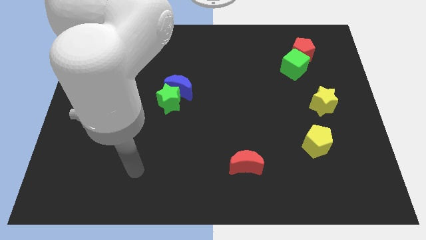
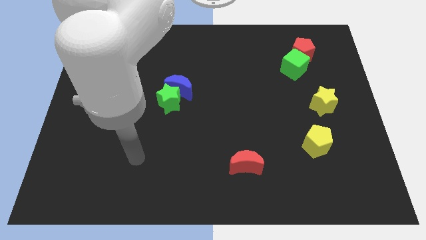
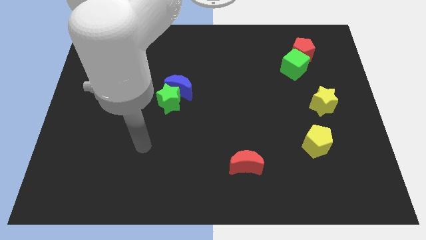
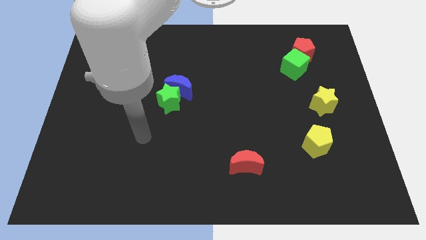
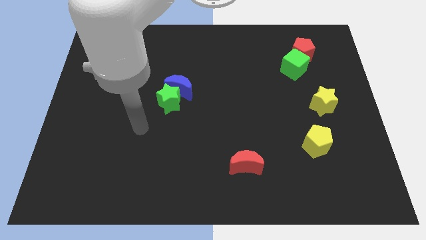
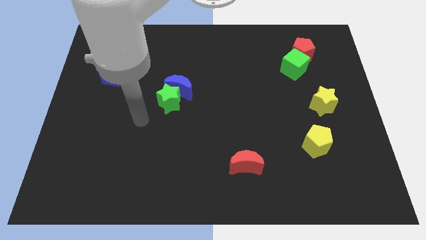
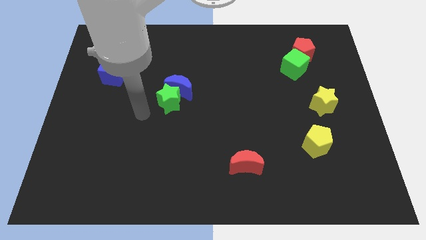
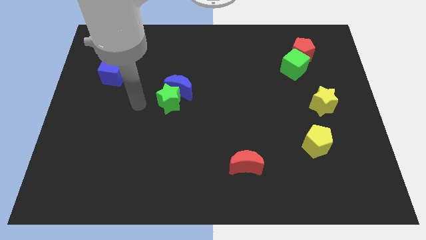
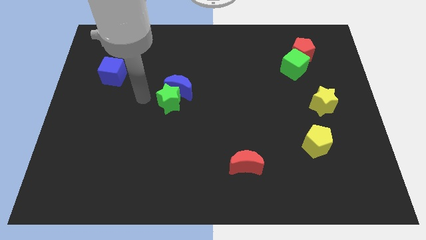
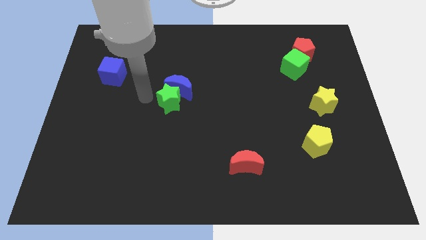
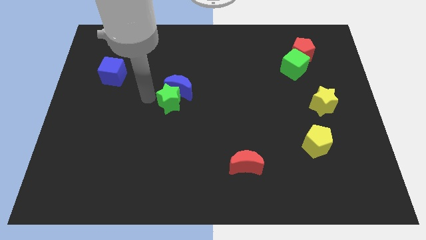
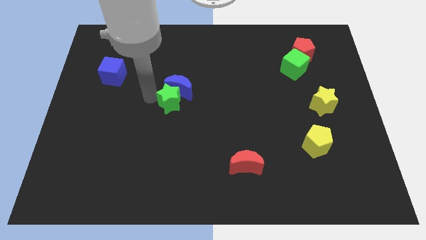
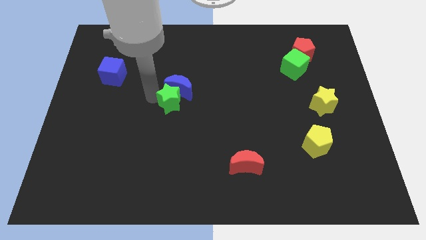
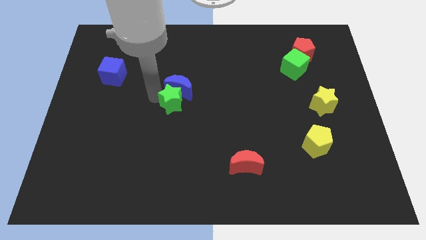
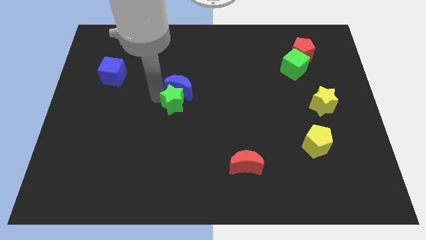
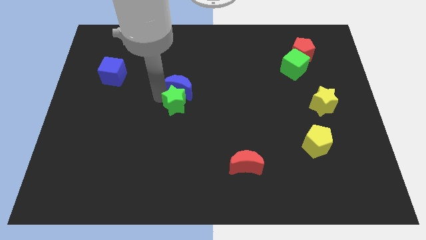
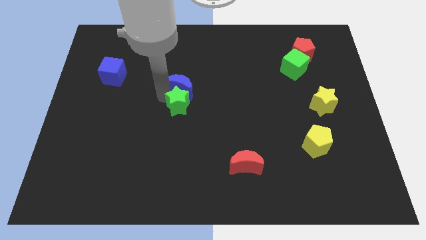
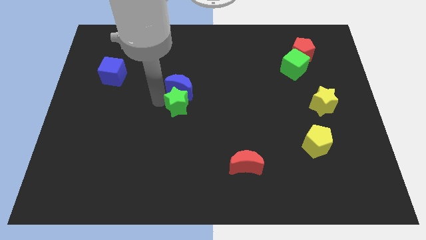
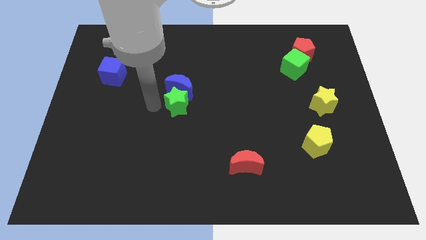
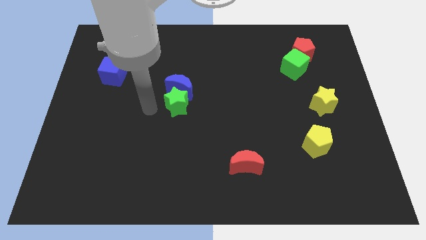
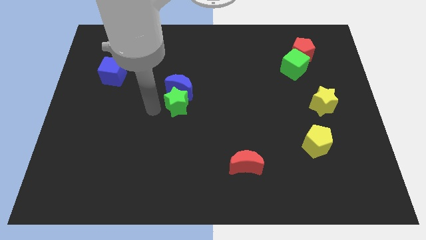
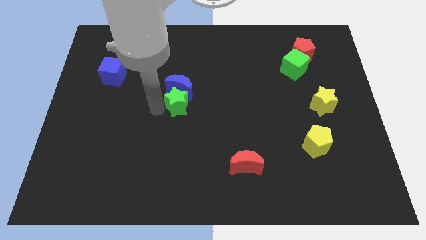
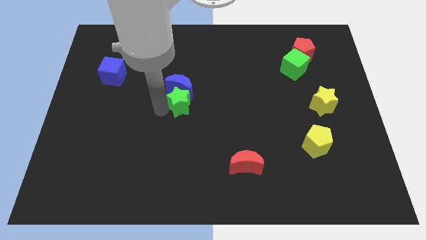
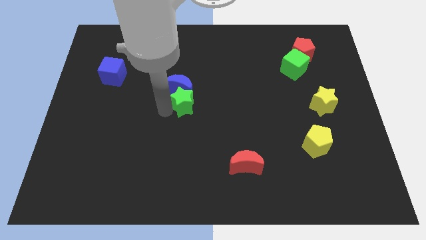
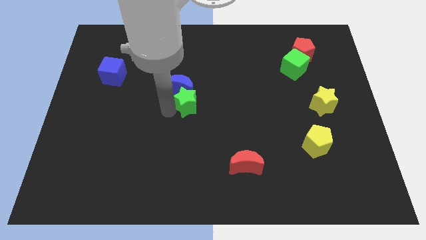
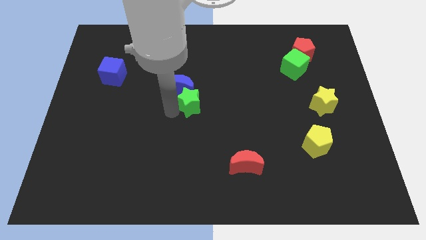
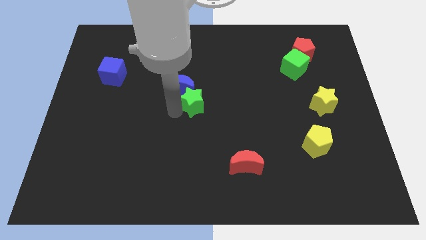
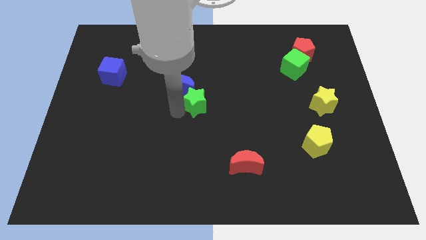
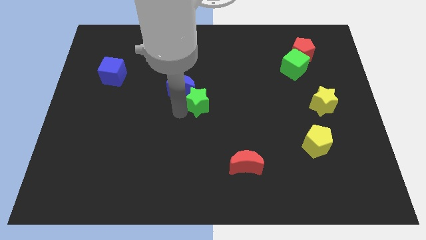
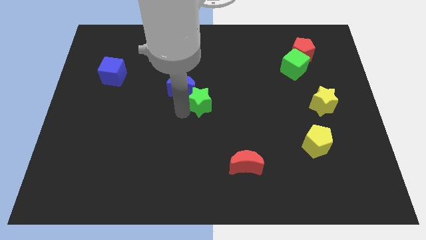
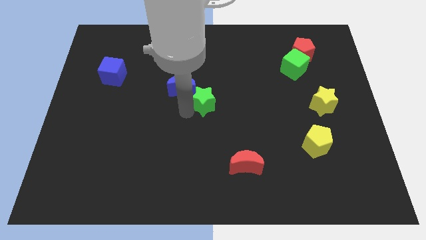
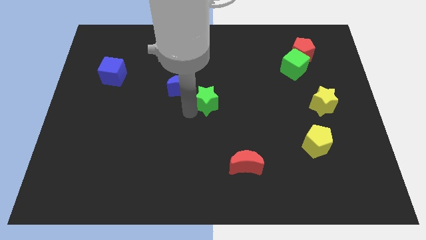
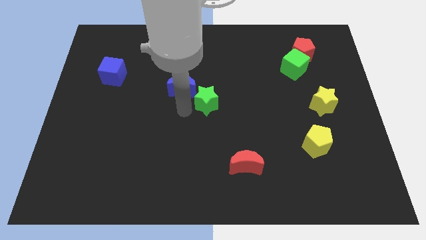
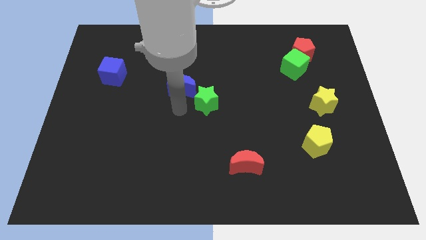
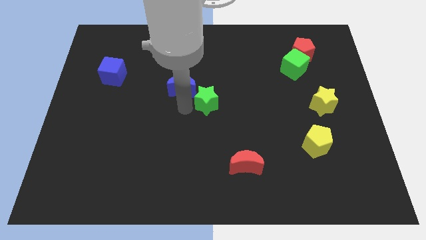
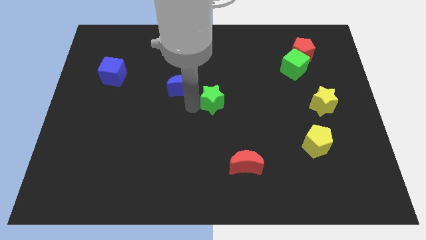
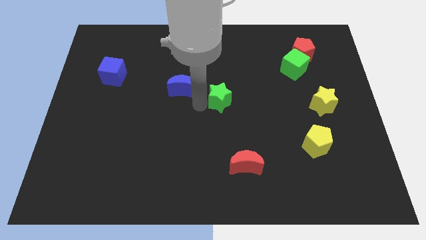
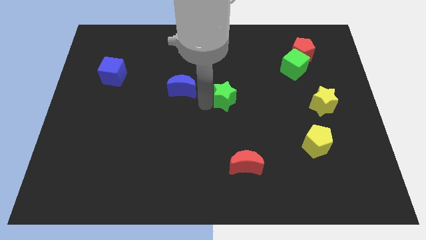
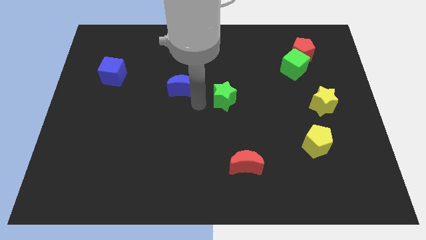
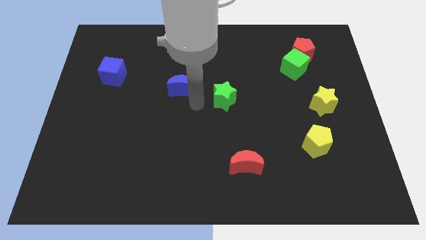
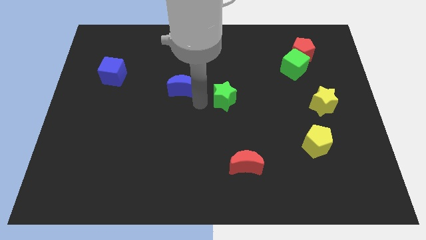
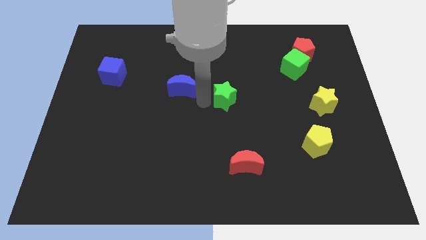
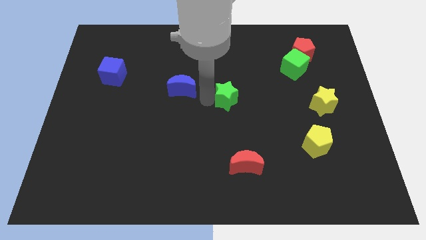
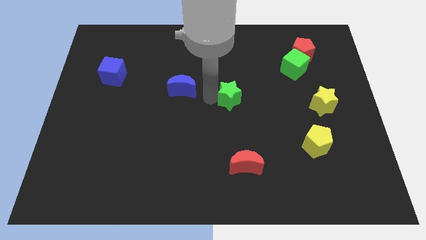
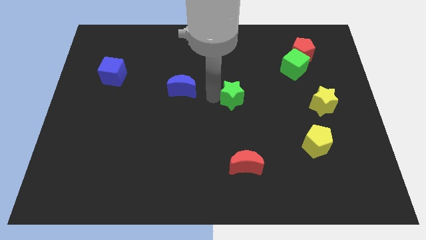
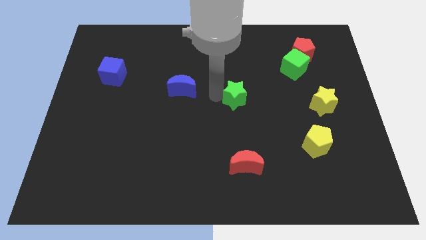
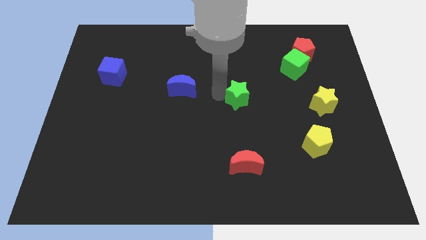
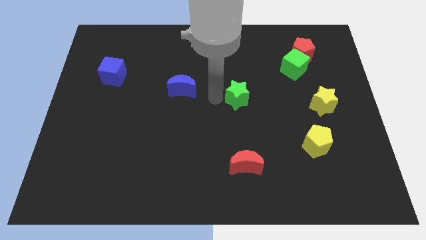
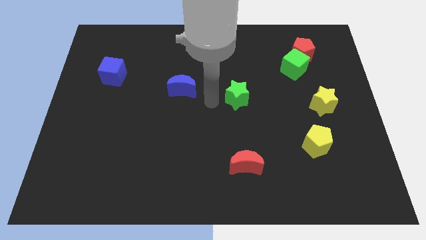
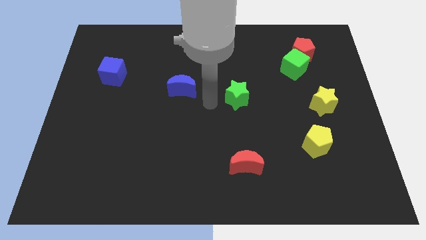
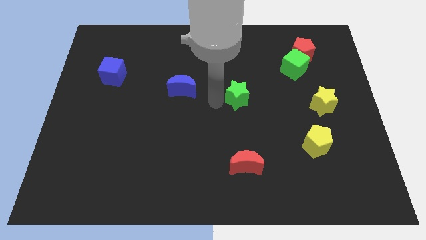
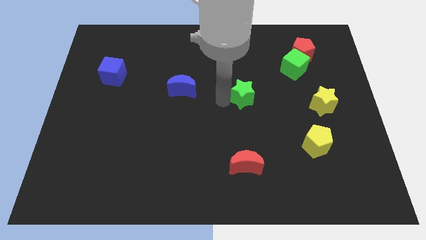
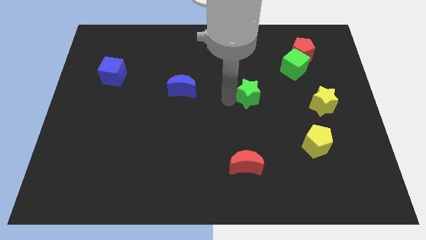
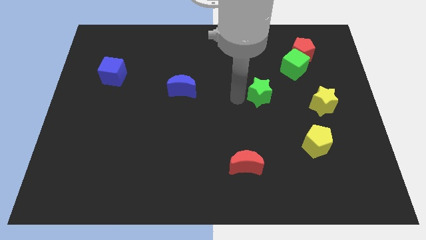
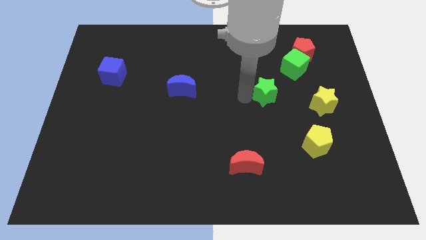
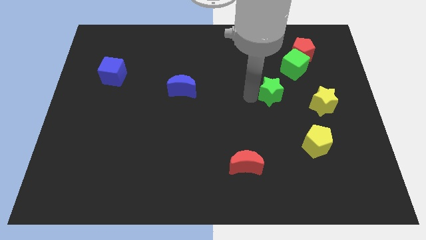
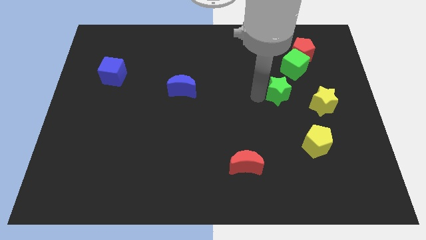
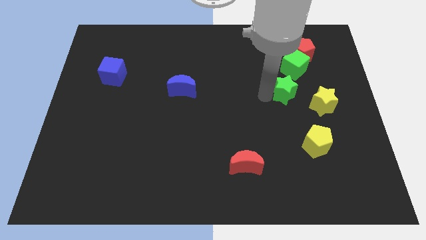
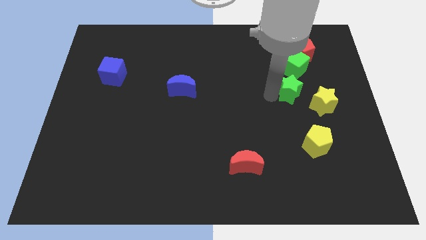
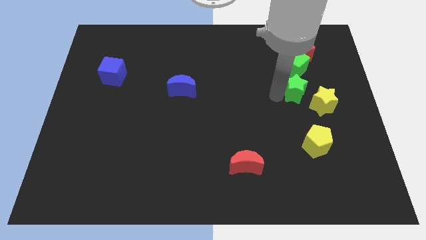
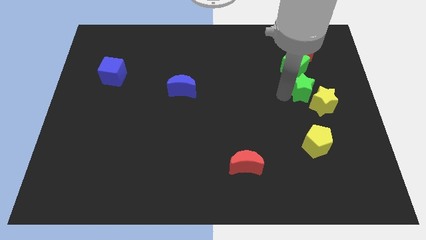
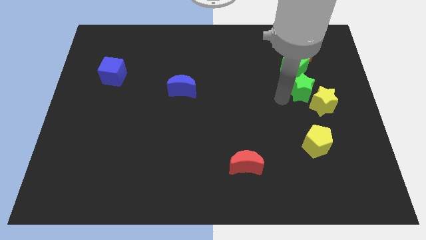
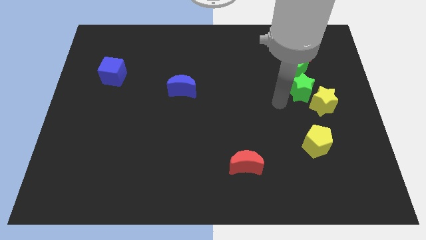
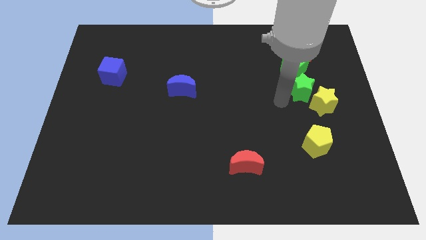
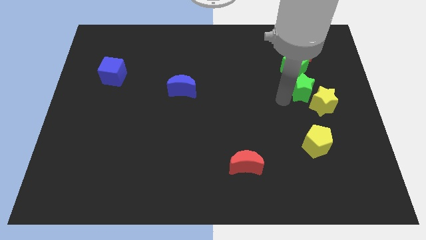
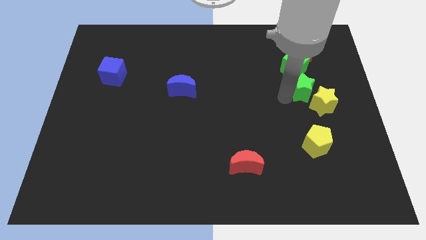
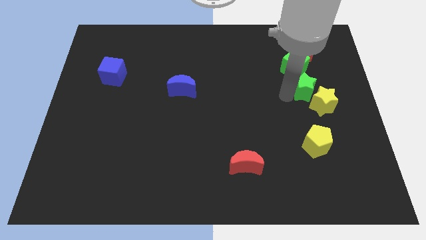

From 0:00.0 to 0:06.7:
move the green star to the bottom right of the green cube
